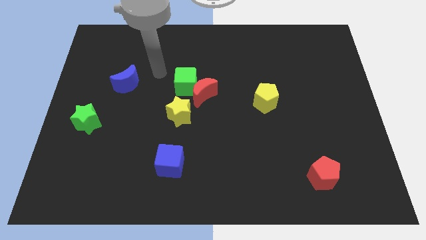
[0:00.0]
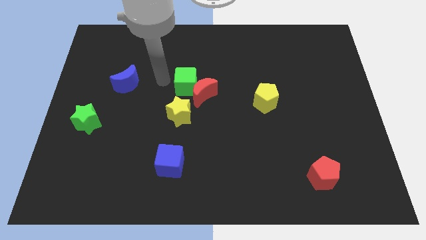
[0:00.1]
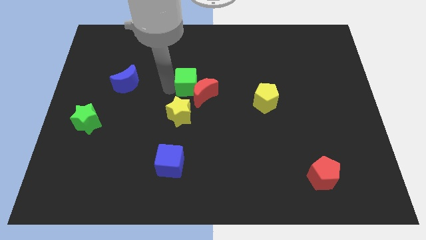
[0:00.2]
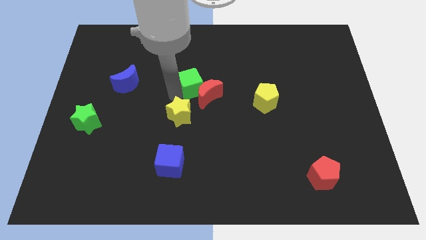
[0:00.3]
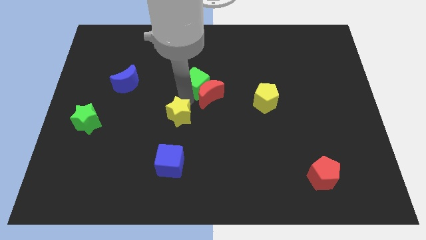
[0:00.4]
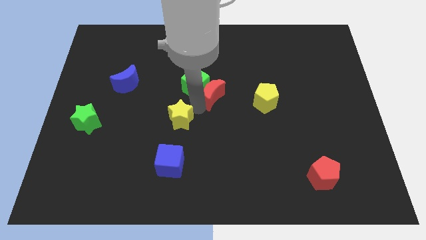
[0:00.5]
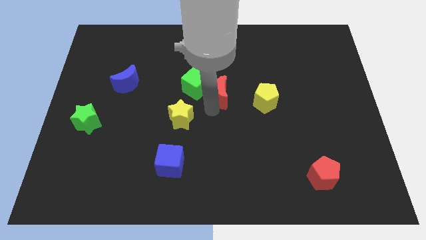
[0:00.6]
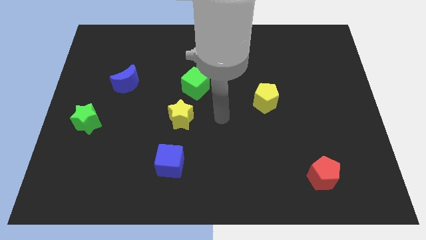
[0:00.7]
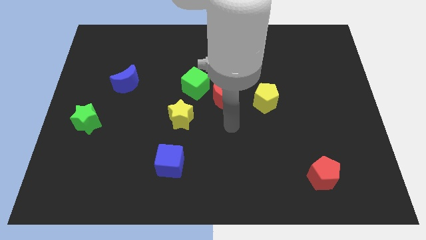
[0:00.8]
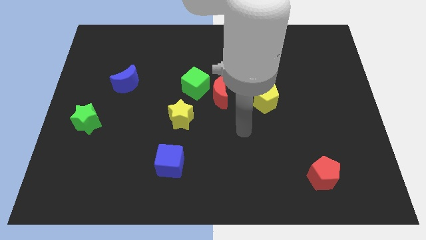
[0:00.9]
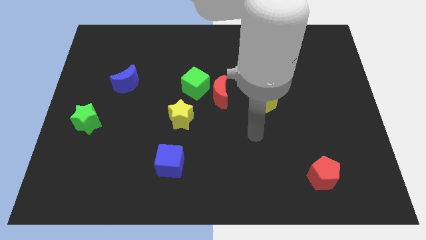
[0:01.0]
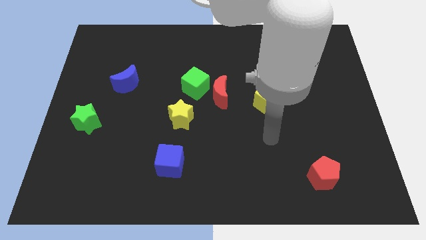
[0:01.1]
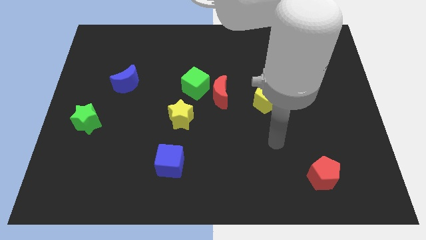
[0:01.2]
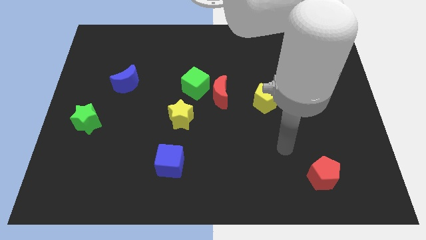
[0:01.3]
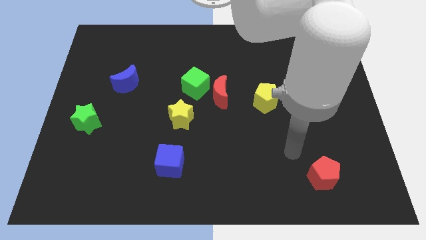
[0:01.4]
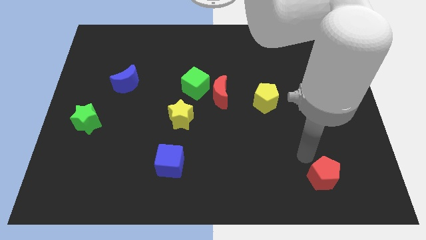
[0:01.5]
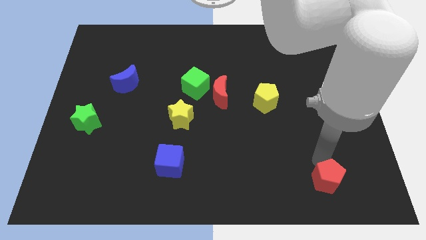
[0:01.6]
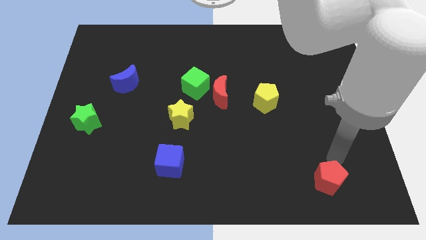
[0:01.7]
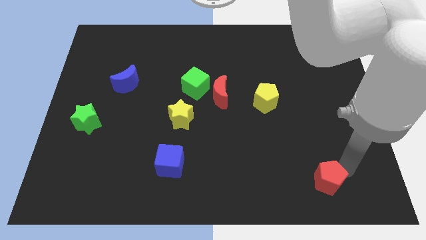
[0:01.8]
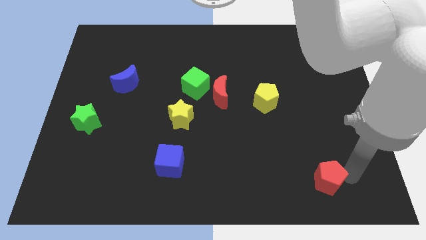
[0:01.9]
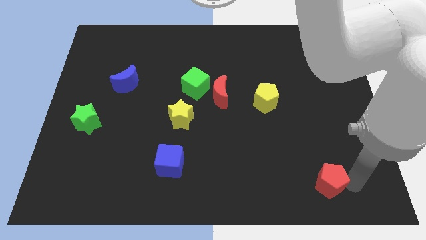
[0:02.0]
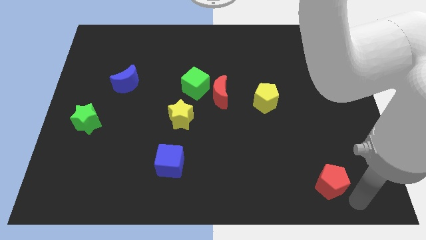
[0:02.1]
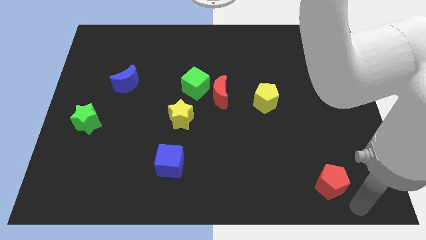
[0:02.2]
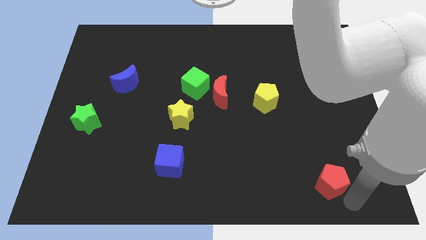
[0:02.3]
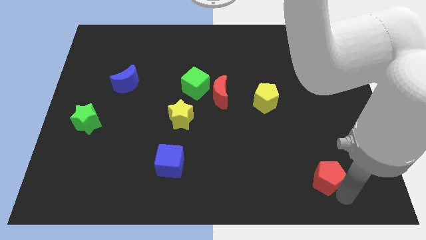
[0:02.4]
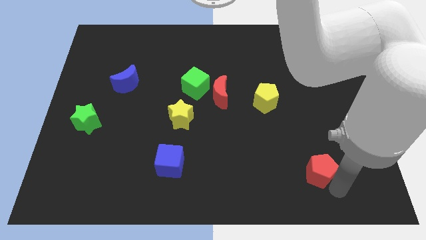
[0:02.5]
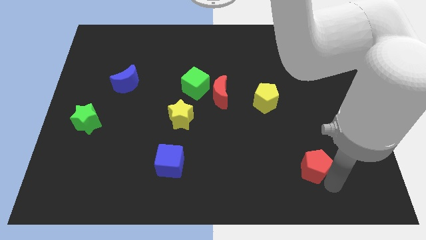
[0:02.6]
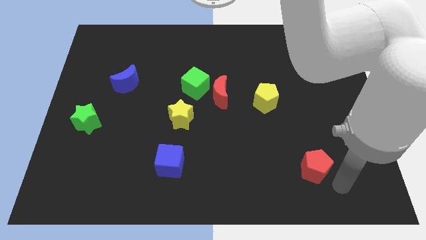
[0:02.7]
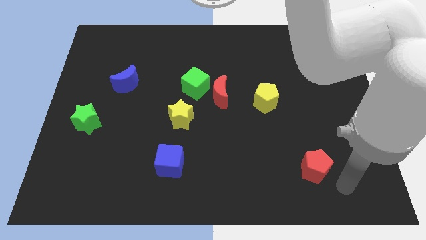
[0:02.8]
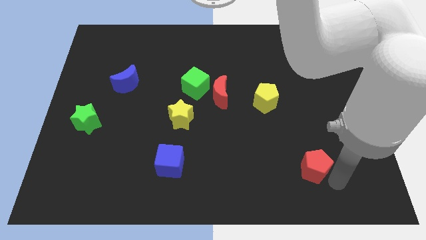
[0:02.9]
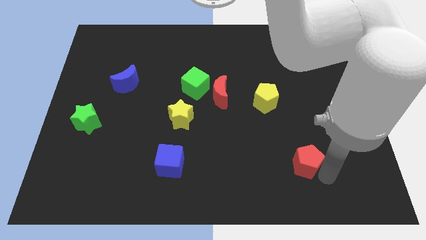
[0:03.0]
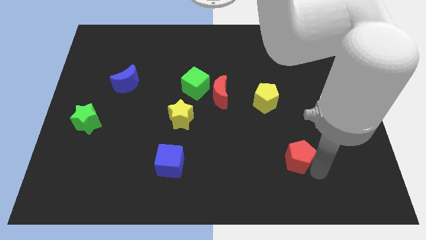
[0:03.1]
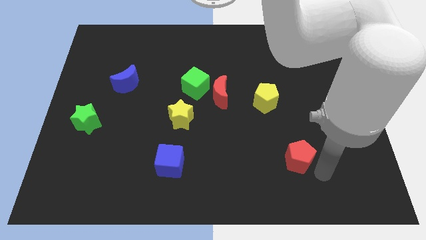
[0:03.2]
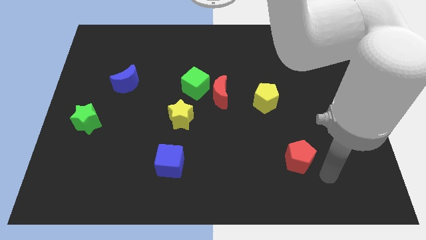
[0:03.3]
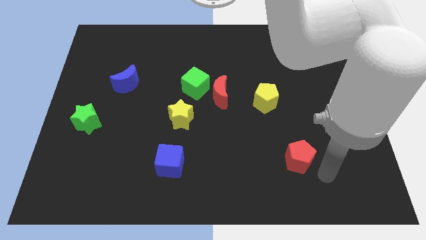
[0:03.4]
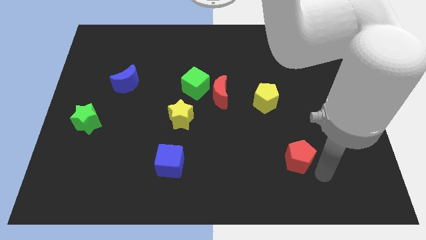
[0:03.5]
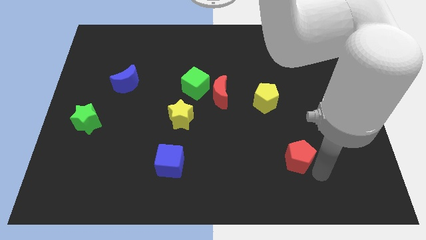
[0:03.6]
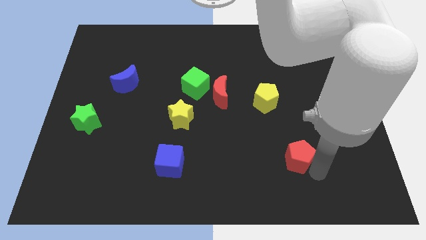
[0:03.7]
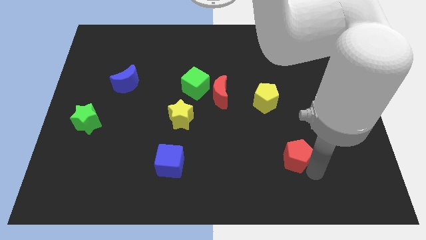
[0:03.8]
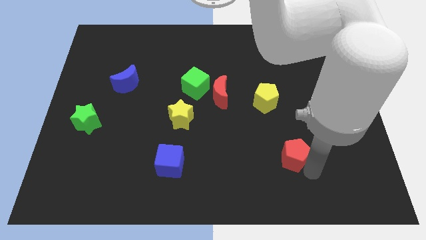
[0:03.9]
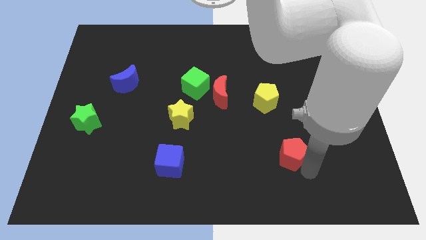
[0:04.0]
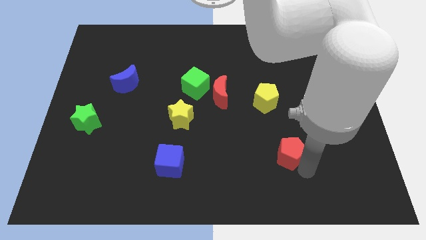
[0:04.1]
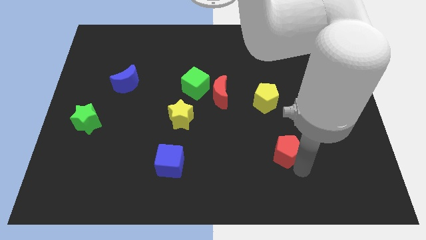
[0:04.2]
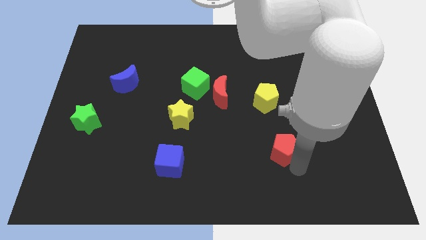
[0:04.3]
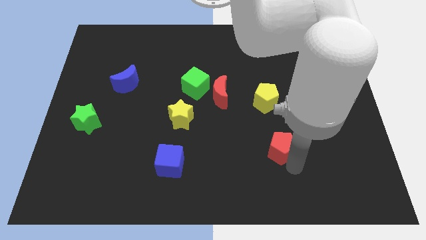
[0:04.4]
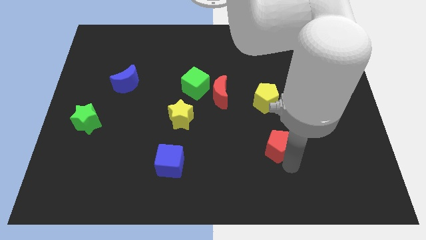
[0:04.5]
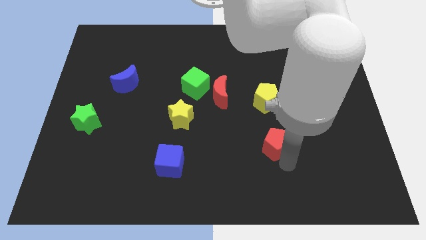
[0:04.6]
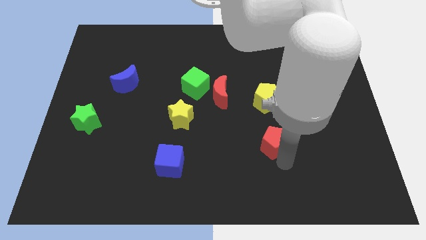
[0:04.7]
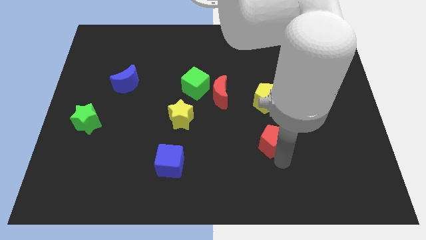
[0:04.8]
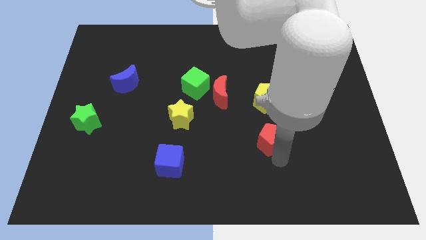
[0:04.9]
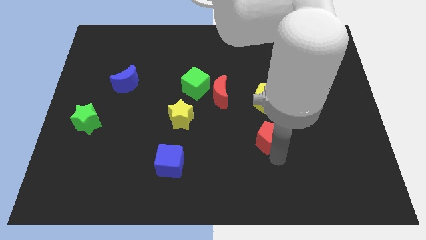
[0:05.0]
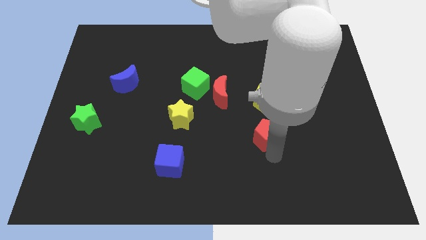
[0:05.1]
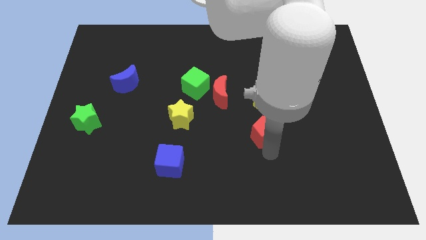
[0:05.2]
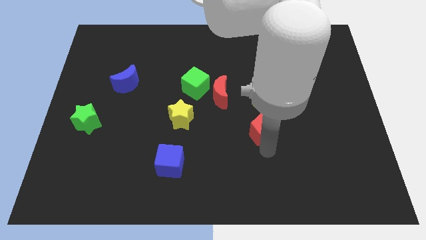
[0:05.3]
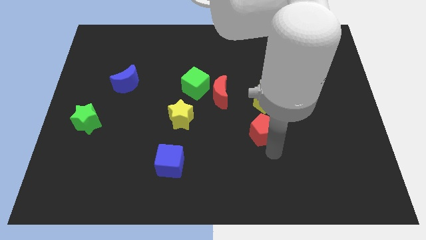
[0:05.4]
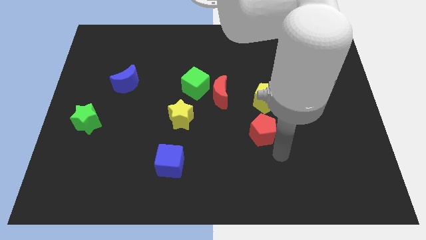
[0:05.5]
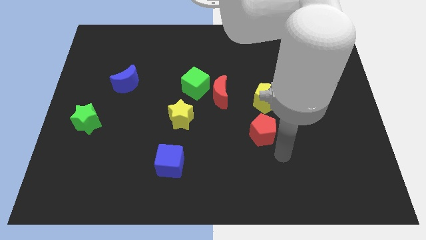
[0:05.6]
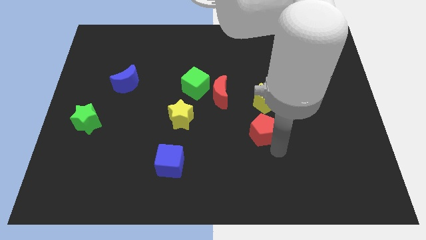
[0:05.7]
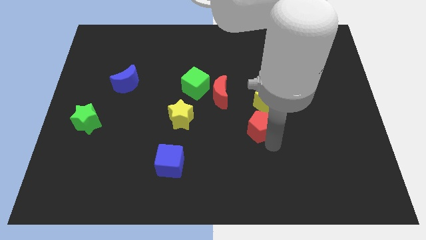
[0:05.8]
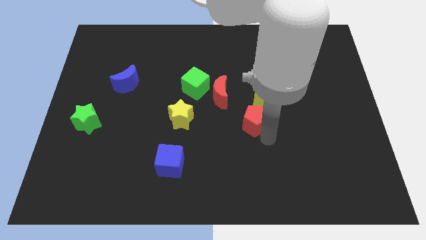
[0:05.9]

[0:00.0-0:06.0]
put the red pentagon diagonally down and to the right of the red moon
